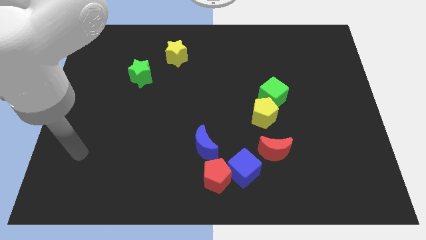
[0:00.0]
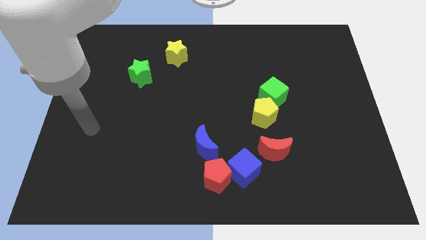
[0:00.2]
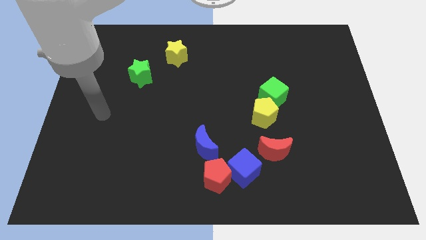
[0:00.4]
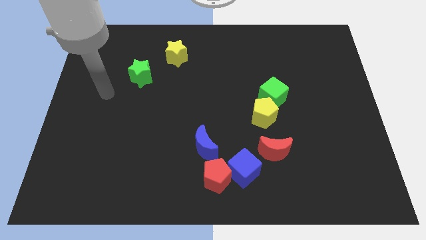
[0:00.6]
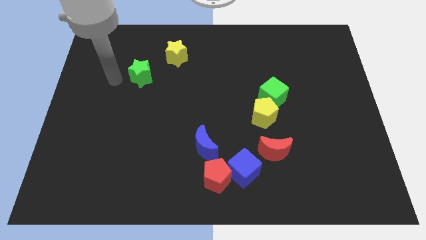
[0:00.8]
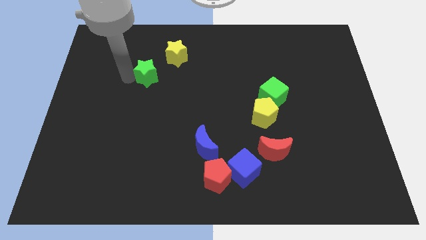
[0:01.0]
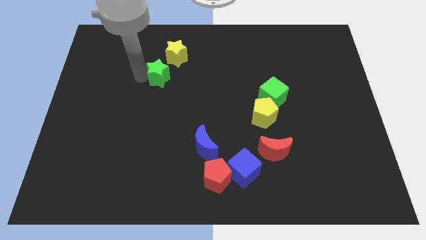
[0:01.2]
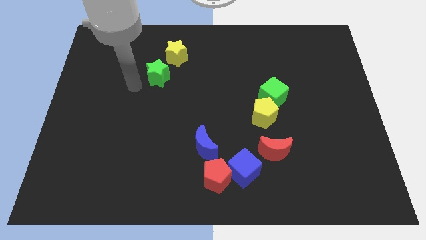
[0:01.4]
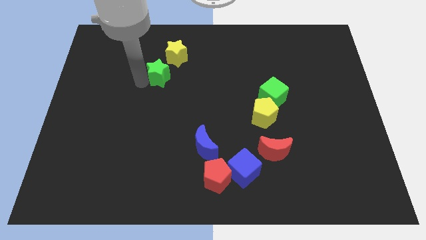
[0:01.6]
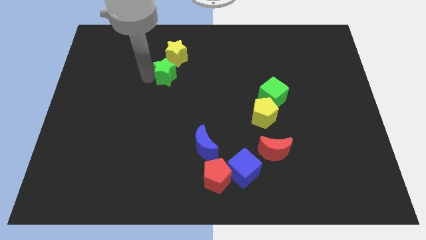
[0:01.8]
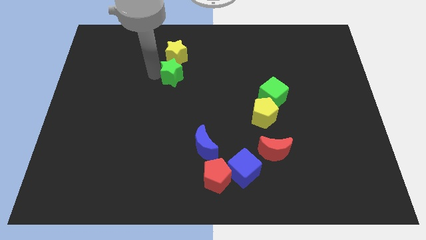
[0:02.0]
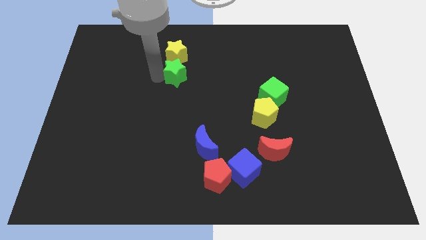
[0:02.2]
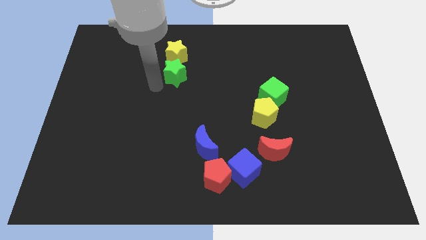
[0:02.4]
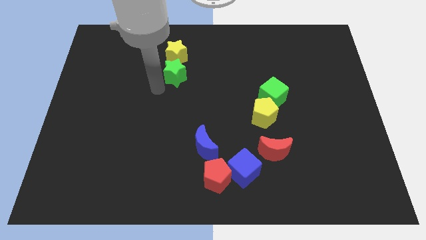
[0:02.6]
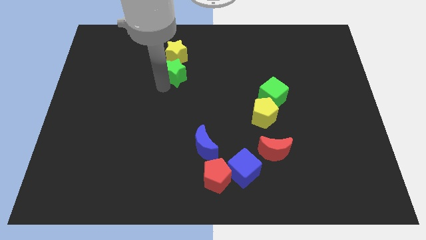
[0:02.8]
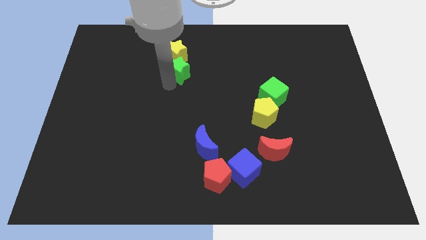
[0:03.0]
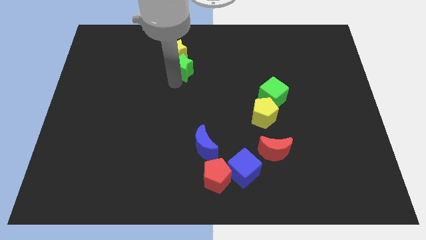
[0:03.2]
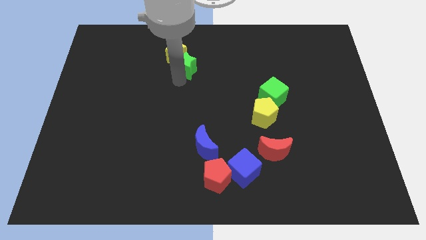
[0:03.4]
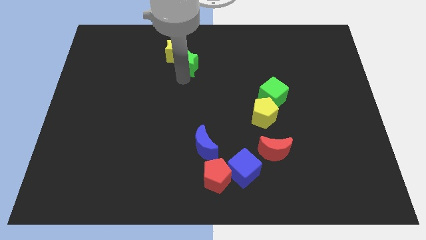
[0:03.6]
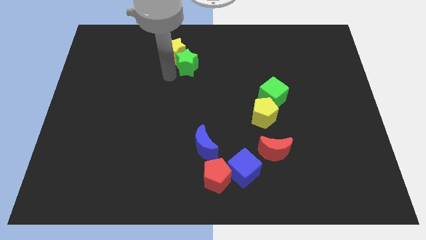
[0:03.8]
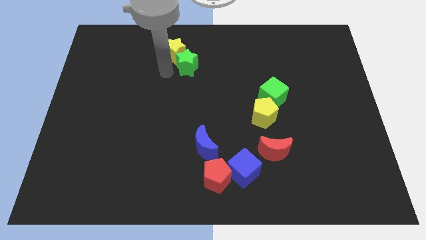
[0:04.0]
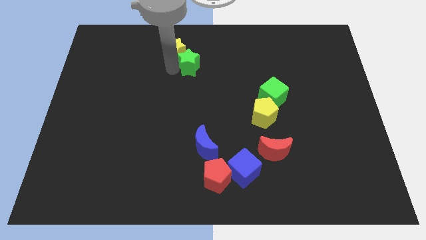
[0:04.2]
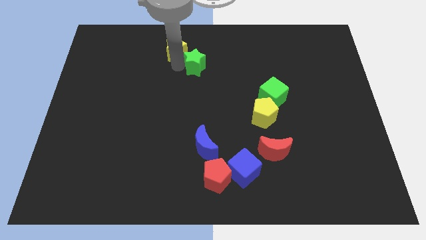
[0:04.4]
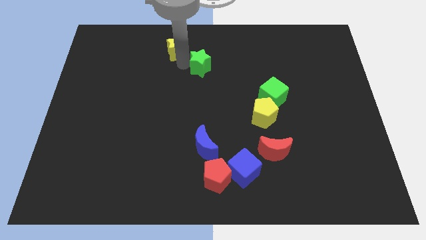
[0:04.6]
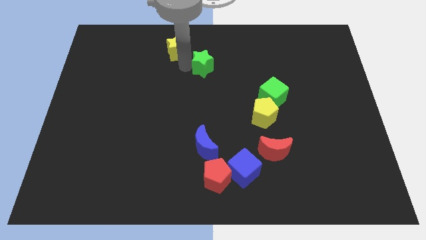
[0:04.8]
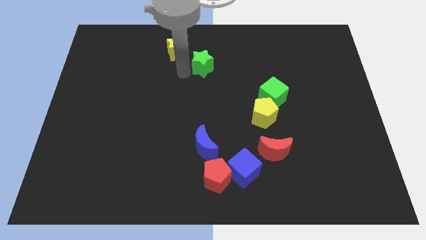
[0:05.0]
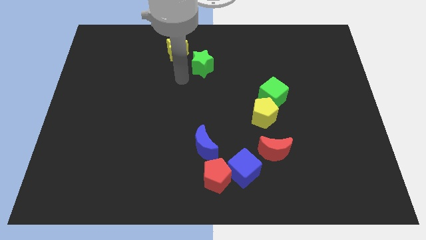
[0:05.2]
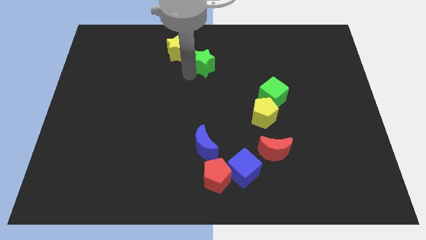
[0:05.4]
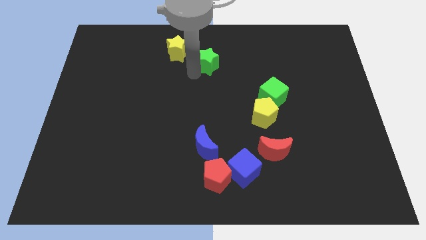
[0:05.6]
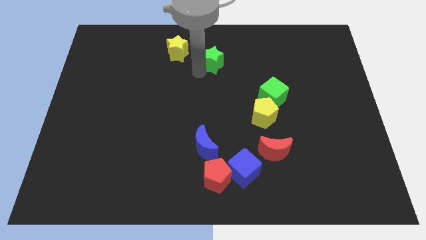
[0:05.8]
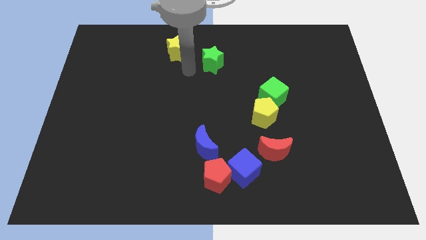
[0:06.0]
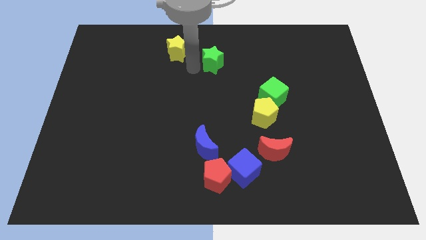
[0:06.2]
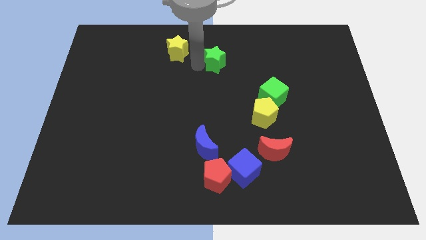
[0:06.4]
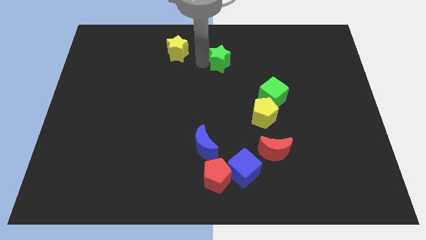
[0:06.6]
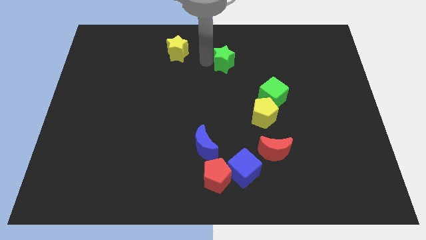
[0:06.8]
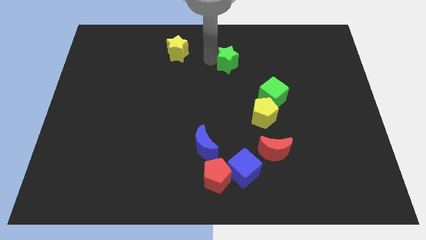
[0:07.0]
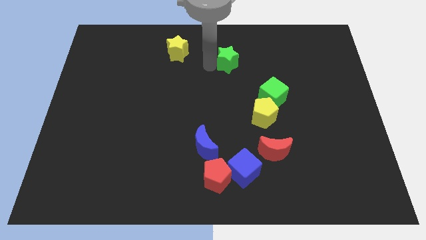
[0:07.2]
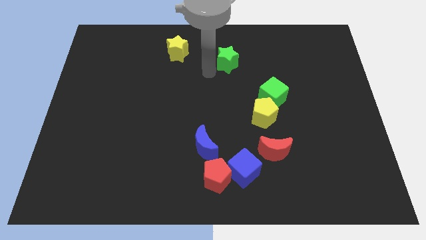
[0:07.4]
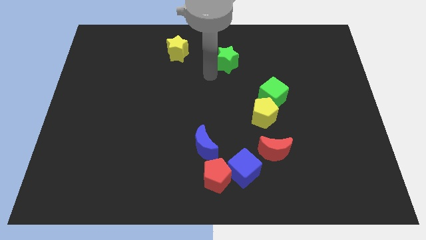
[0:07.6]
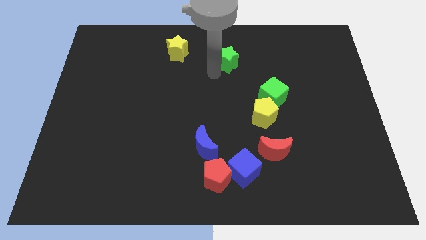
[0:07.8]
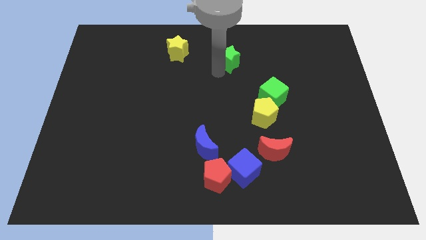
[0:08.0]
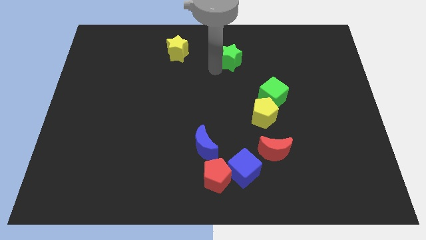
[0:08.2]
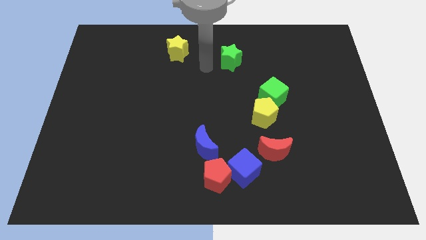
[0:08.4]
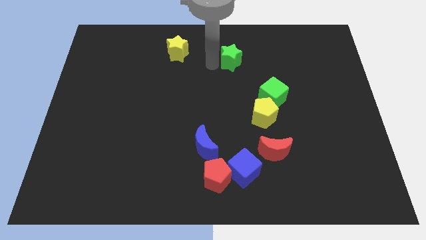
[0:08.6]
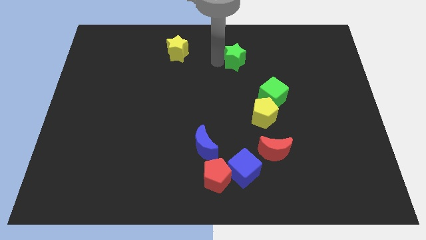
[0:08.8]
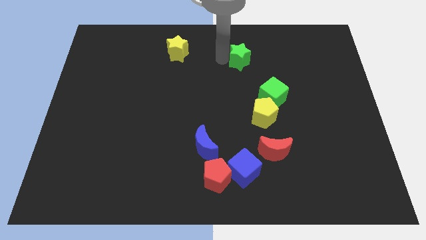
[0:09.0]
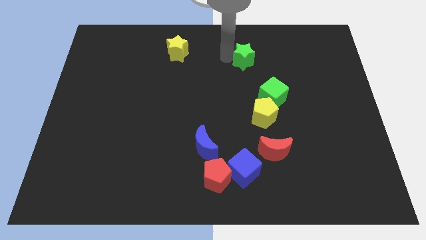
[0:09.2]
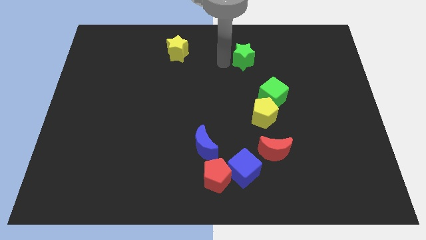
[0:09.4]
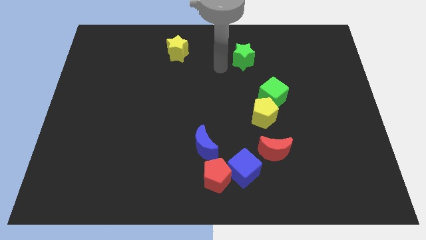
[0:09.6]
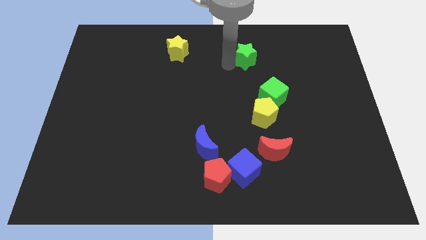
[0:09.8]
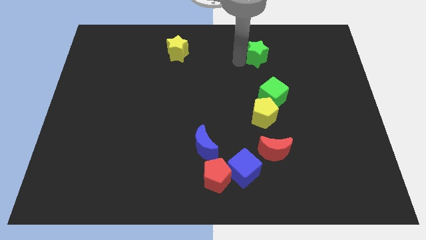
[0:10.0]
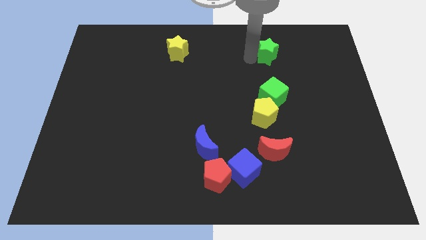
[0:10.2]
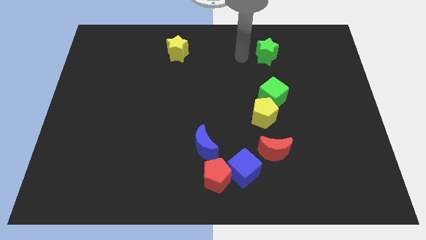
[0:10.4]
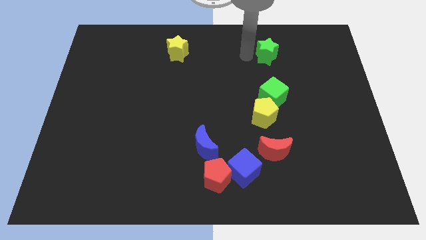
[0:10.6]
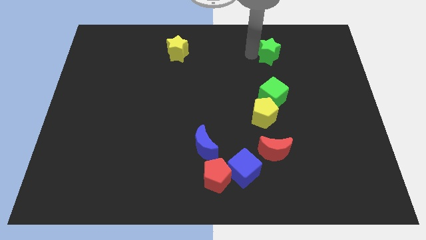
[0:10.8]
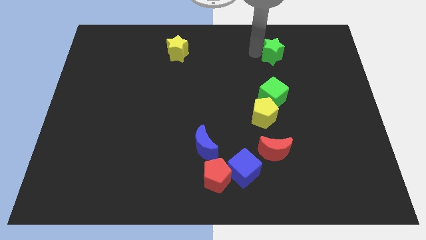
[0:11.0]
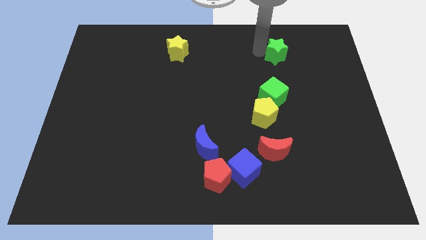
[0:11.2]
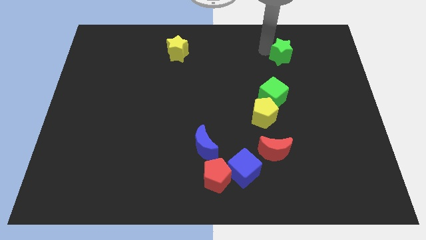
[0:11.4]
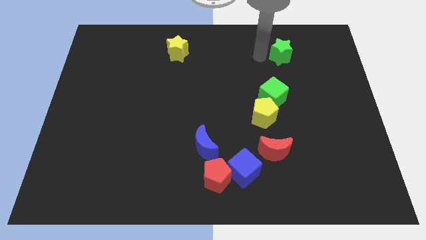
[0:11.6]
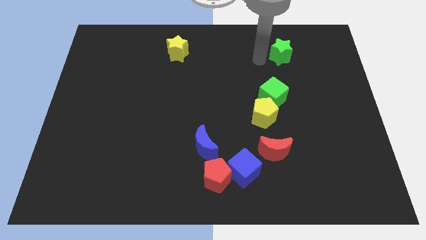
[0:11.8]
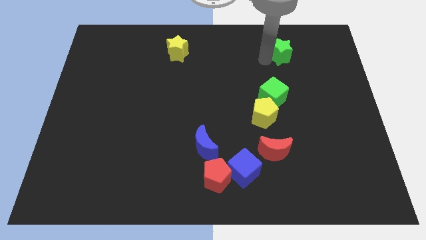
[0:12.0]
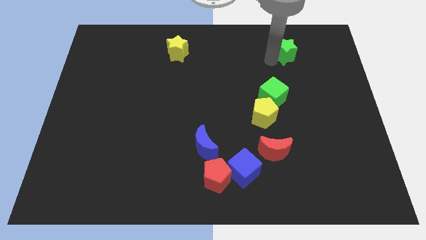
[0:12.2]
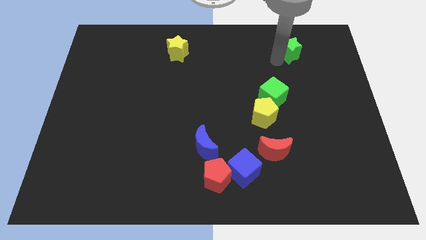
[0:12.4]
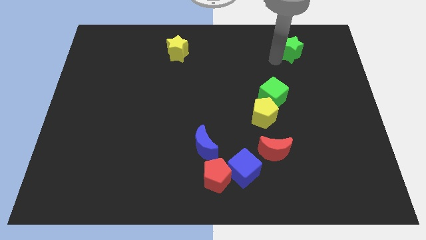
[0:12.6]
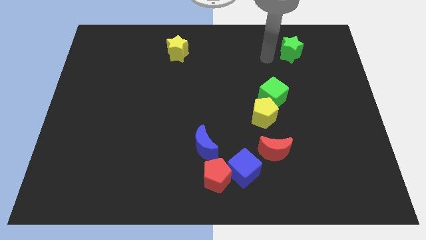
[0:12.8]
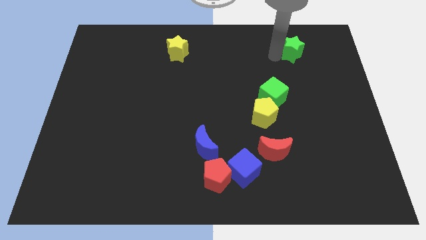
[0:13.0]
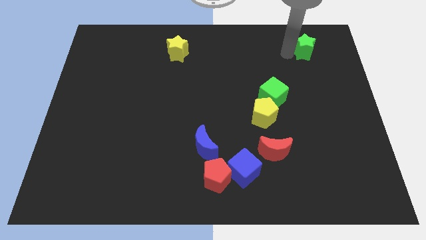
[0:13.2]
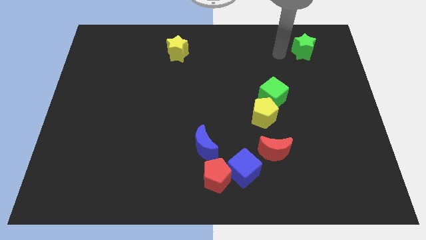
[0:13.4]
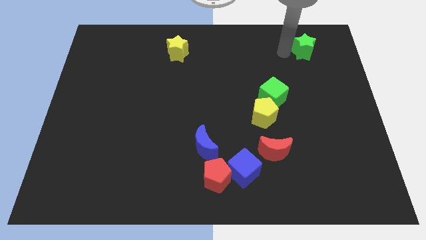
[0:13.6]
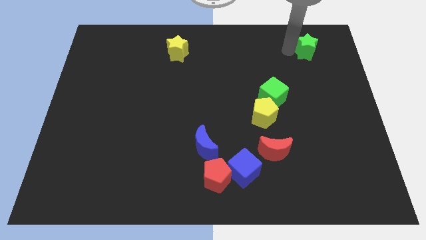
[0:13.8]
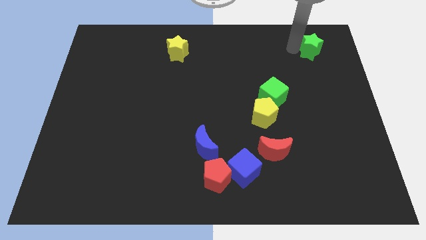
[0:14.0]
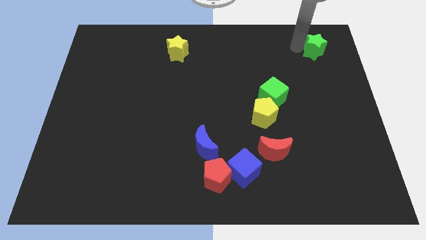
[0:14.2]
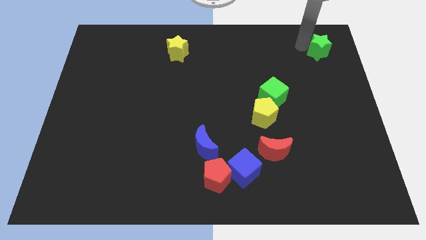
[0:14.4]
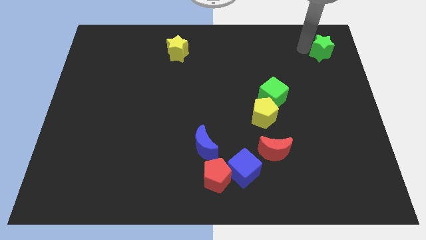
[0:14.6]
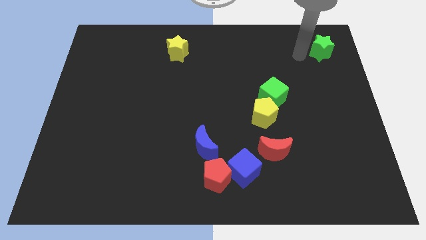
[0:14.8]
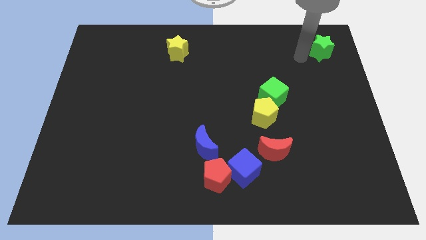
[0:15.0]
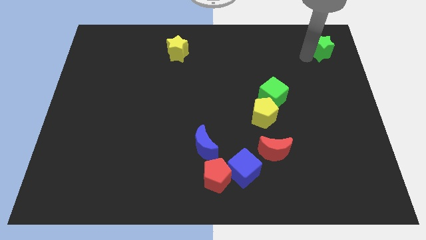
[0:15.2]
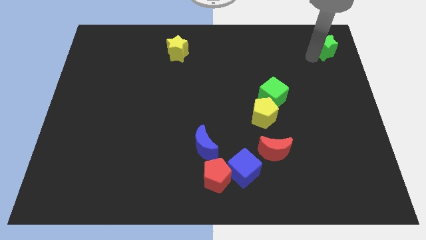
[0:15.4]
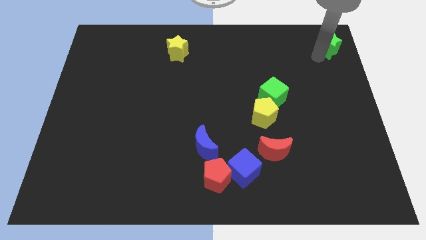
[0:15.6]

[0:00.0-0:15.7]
push the green star to the top right of the board
